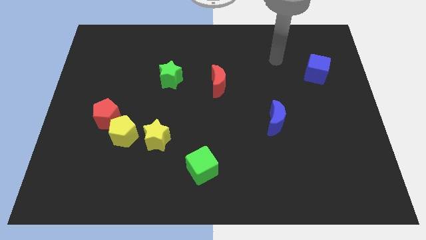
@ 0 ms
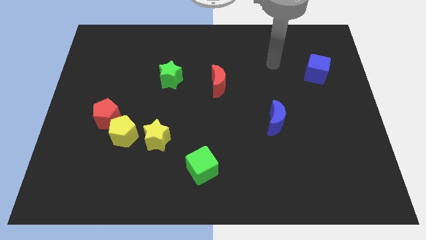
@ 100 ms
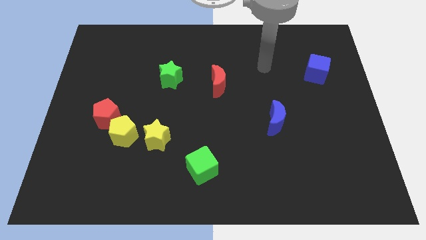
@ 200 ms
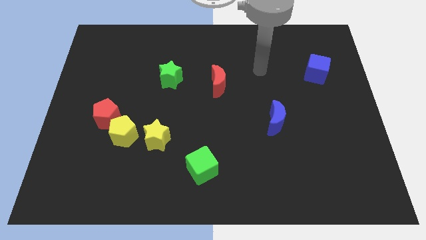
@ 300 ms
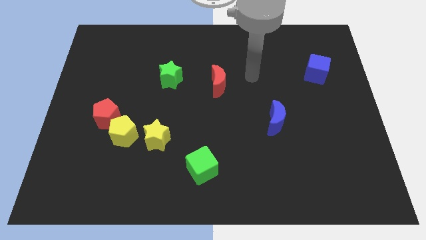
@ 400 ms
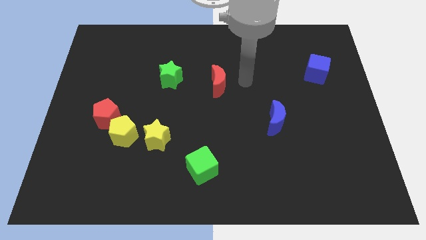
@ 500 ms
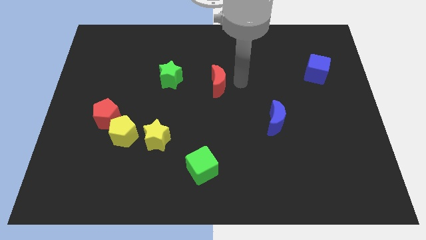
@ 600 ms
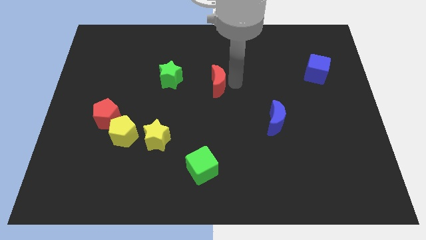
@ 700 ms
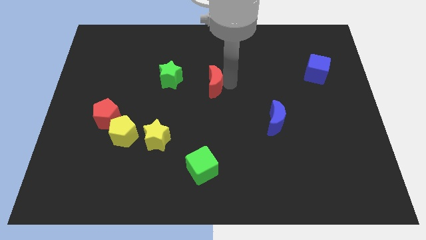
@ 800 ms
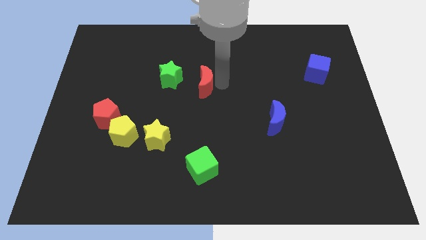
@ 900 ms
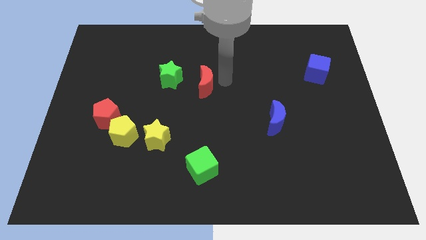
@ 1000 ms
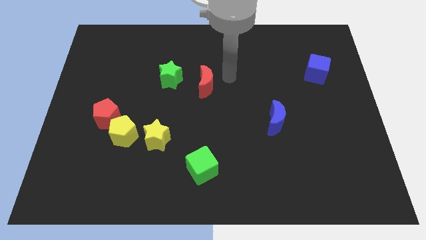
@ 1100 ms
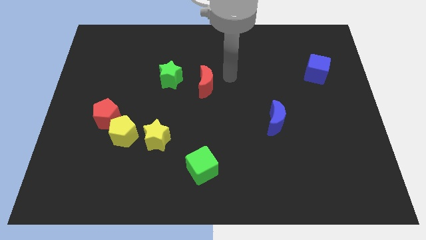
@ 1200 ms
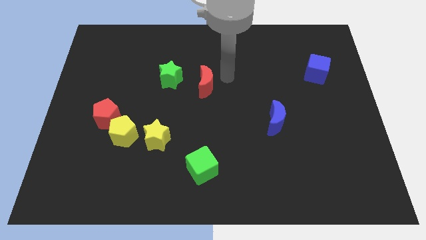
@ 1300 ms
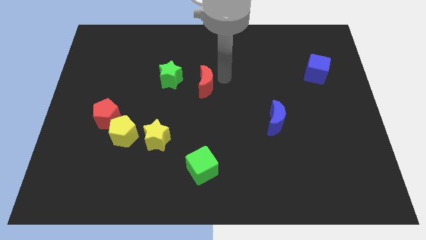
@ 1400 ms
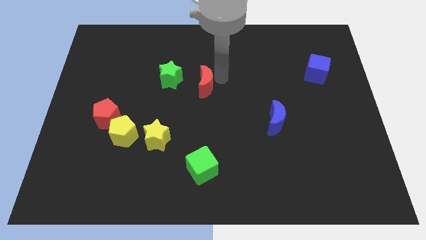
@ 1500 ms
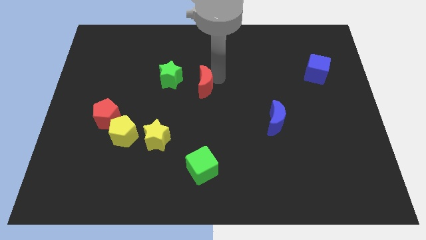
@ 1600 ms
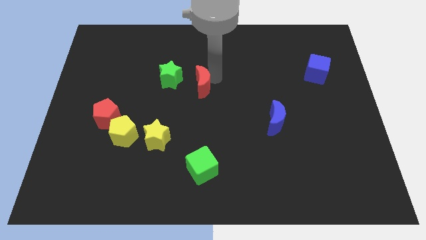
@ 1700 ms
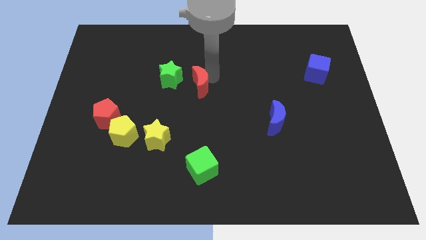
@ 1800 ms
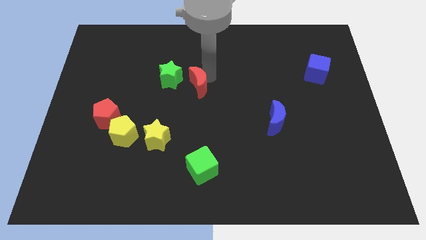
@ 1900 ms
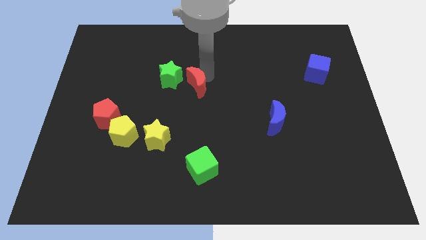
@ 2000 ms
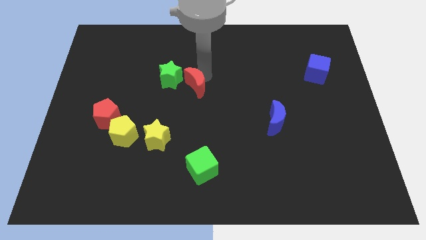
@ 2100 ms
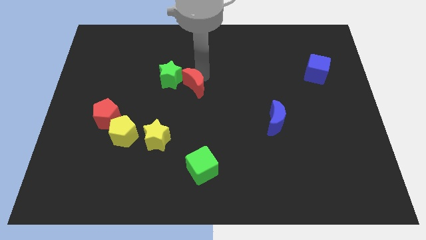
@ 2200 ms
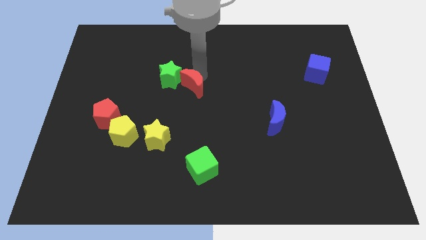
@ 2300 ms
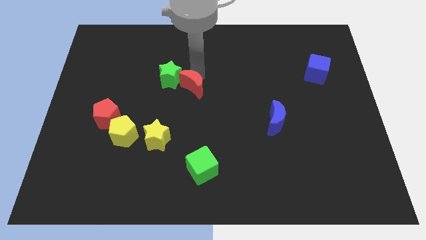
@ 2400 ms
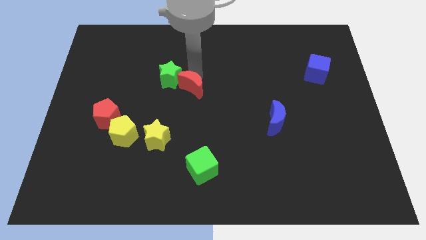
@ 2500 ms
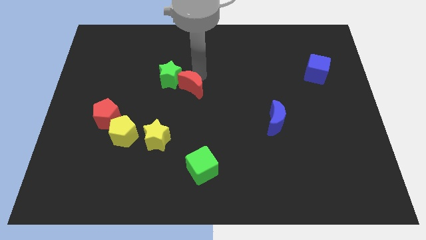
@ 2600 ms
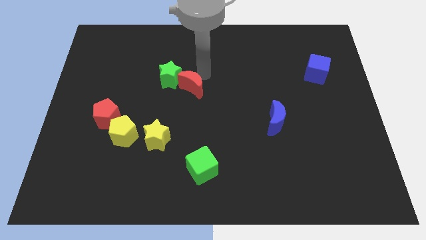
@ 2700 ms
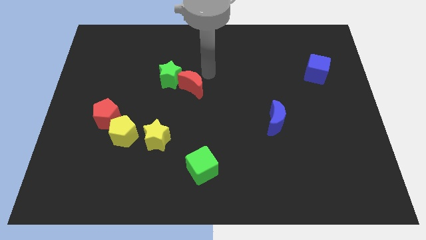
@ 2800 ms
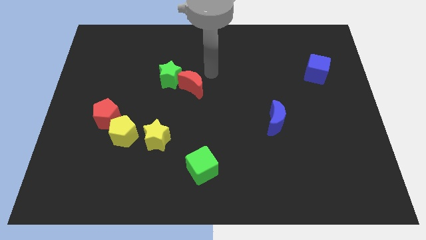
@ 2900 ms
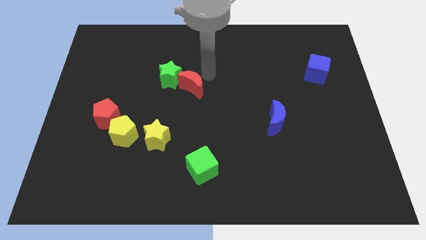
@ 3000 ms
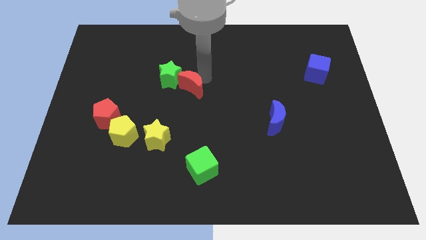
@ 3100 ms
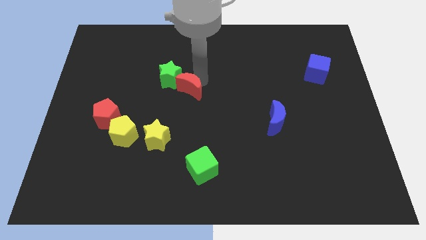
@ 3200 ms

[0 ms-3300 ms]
slightly slide the red moon to the left

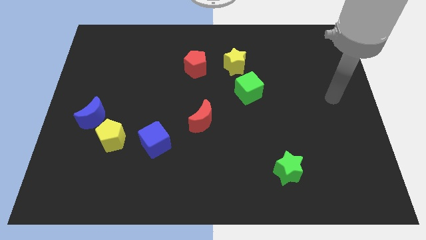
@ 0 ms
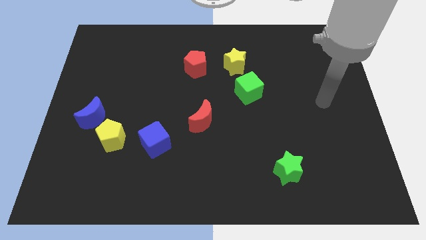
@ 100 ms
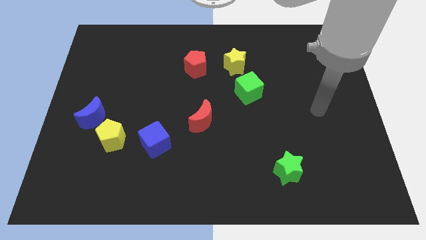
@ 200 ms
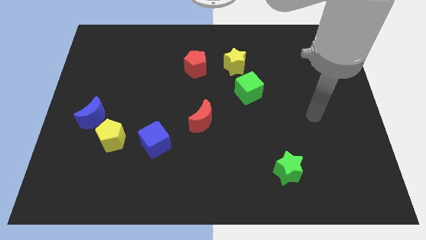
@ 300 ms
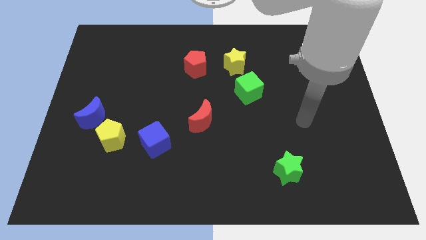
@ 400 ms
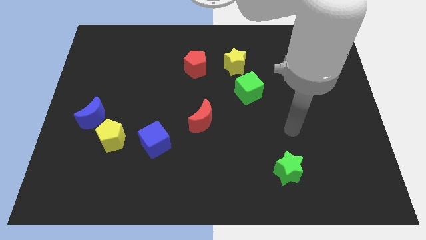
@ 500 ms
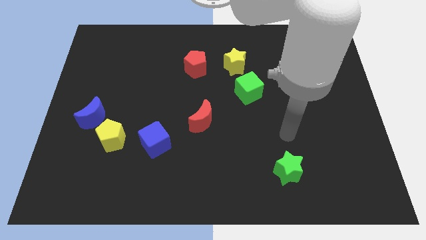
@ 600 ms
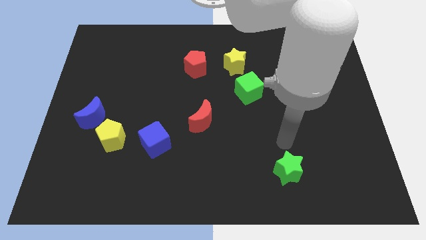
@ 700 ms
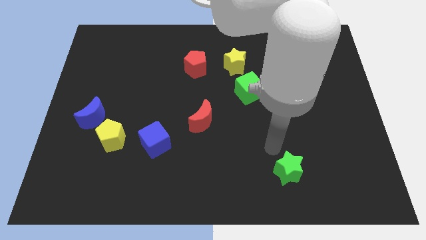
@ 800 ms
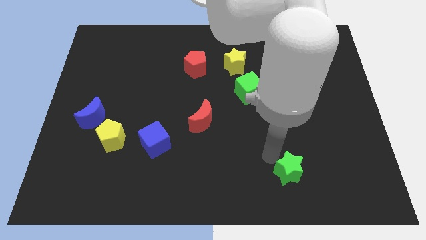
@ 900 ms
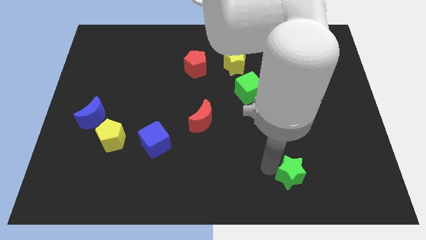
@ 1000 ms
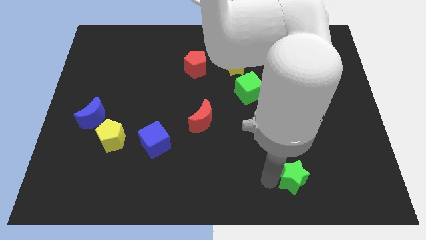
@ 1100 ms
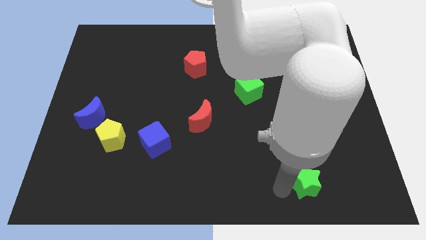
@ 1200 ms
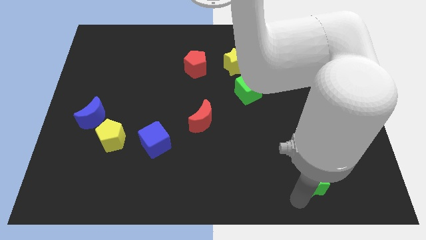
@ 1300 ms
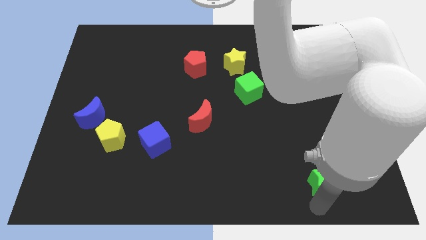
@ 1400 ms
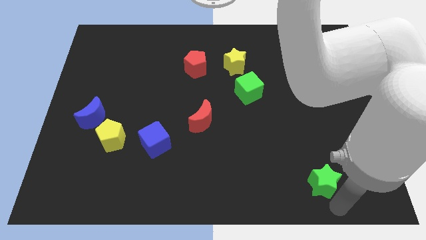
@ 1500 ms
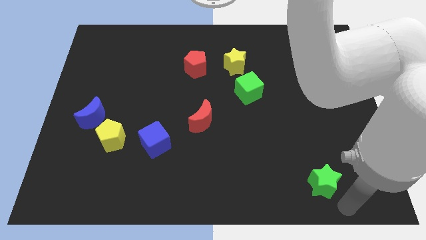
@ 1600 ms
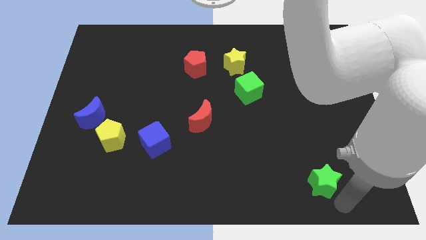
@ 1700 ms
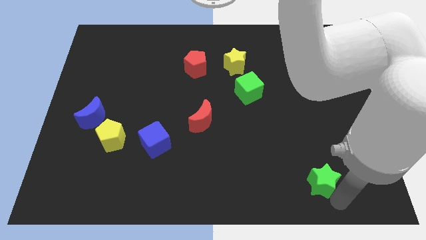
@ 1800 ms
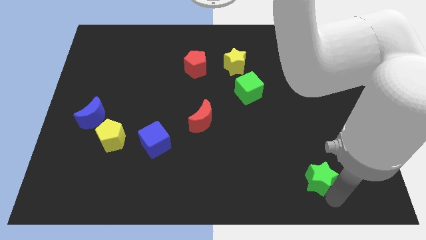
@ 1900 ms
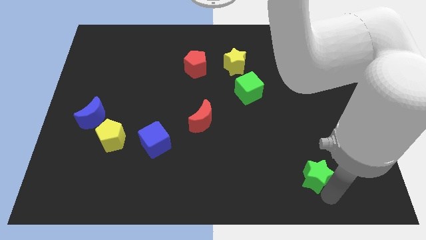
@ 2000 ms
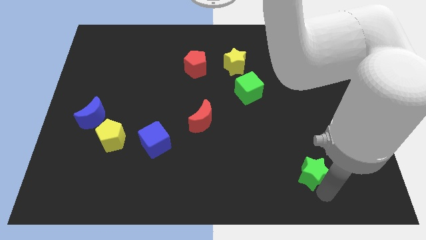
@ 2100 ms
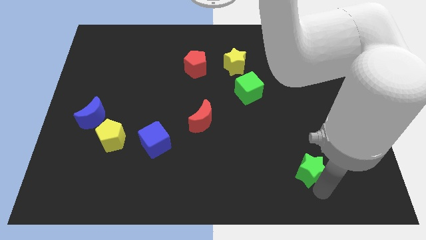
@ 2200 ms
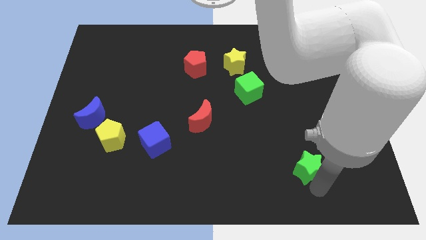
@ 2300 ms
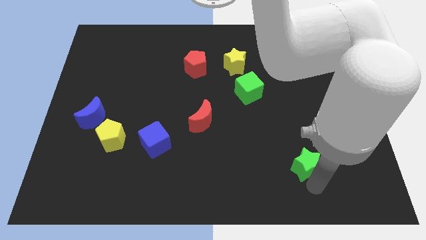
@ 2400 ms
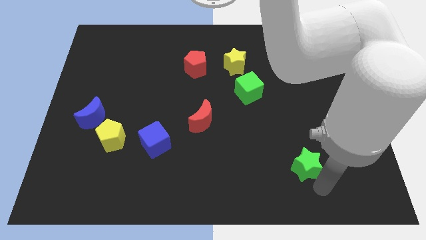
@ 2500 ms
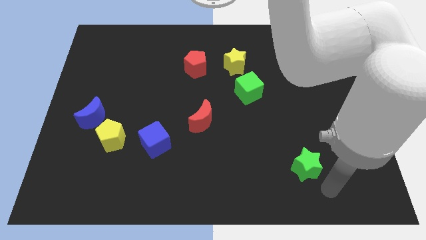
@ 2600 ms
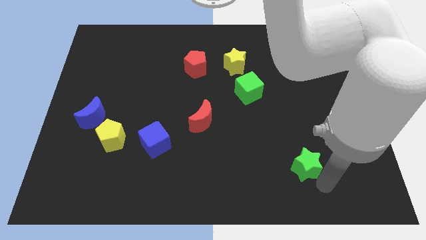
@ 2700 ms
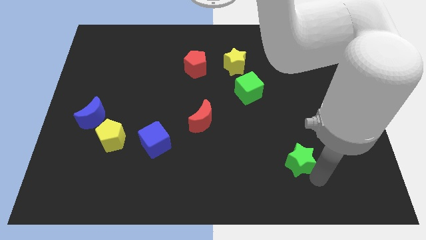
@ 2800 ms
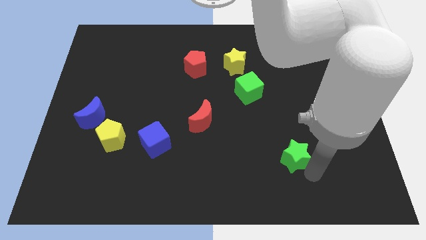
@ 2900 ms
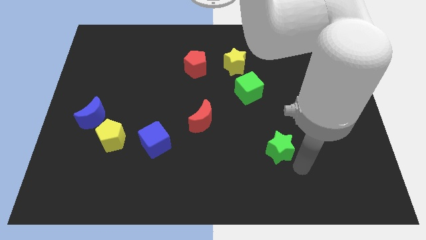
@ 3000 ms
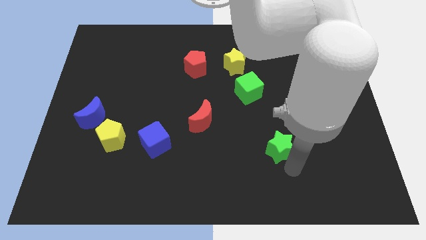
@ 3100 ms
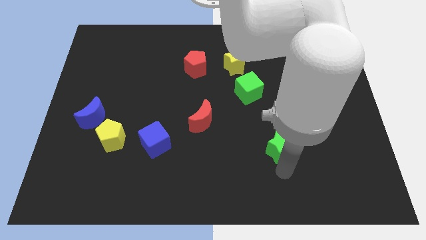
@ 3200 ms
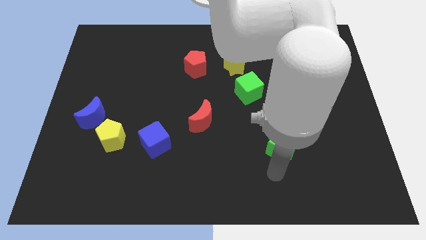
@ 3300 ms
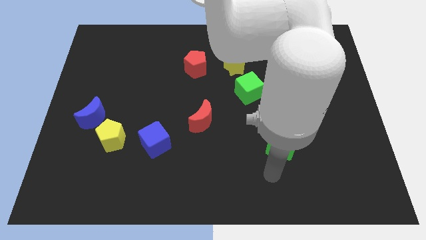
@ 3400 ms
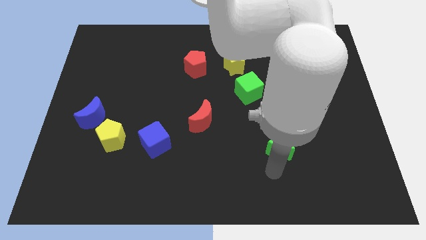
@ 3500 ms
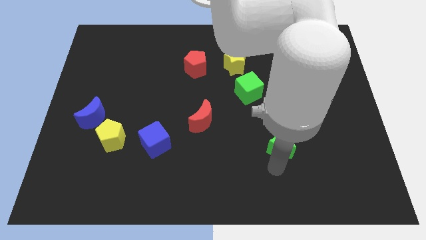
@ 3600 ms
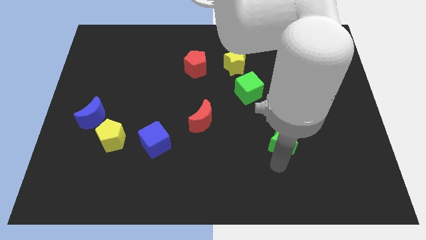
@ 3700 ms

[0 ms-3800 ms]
slide the green star up a bit

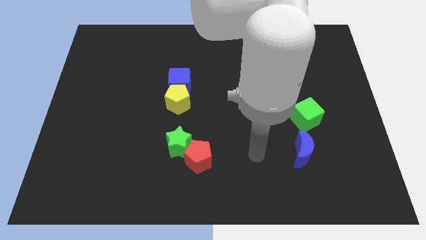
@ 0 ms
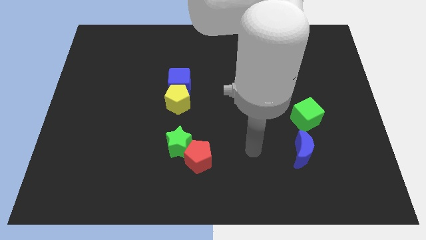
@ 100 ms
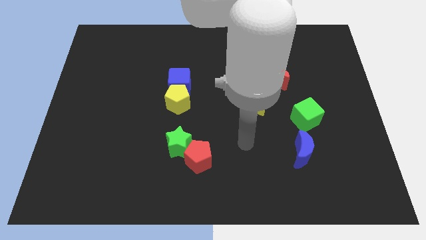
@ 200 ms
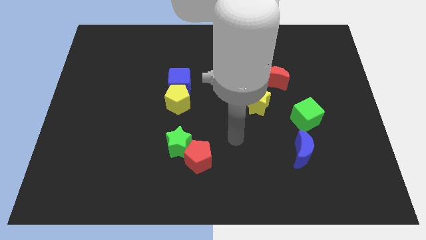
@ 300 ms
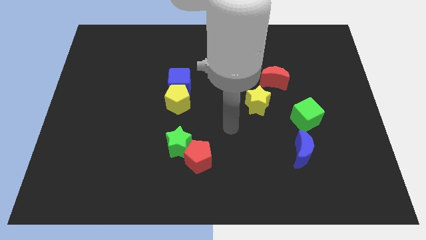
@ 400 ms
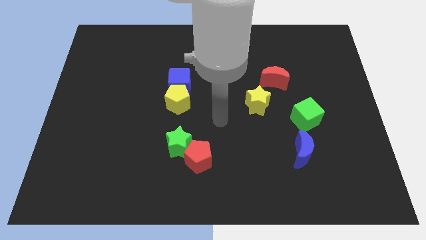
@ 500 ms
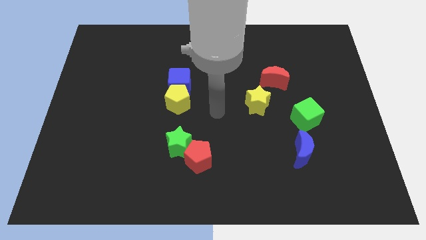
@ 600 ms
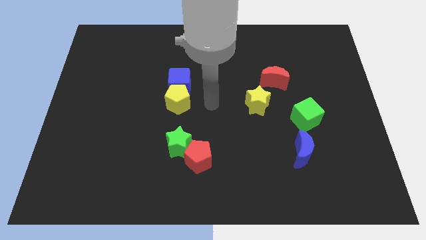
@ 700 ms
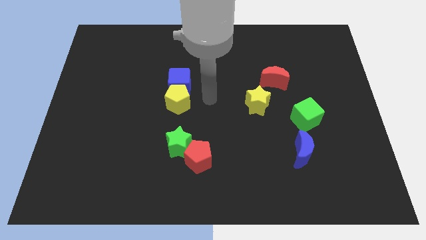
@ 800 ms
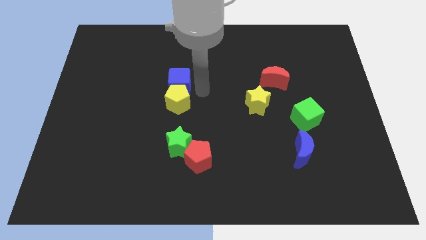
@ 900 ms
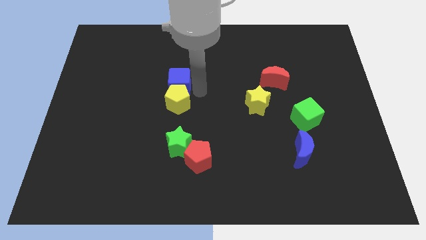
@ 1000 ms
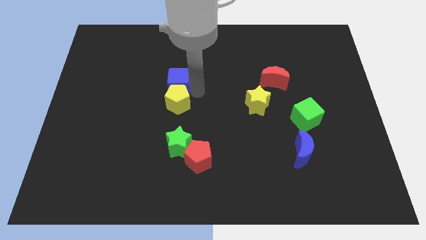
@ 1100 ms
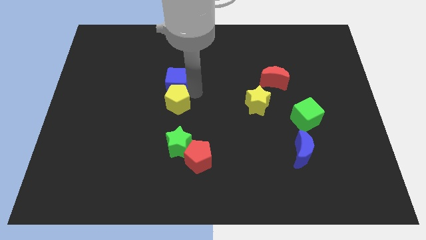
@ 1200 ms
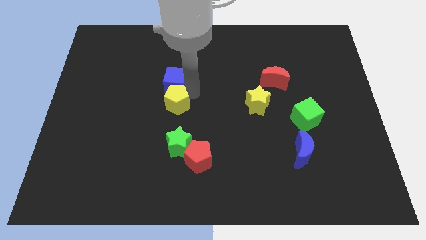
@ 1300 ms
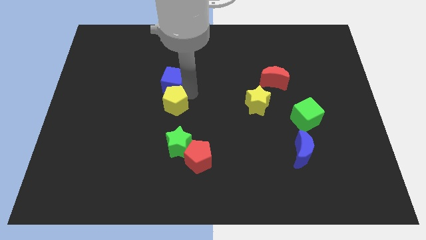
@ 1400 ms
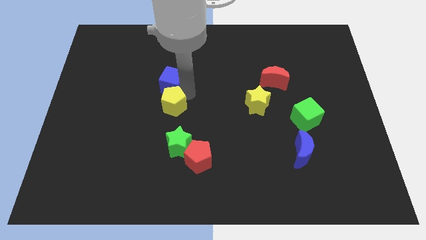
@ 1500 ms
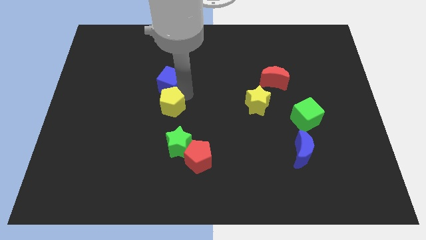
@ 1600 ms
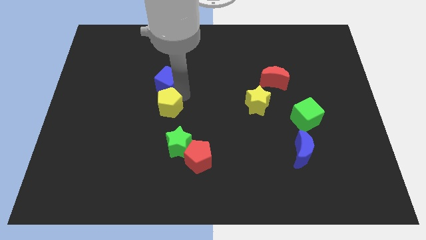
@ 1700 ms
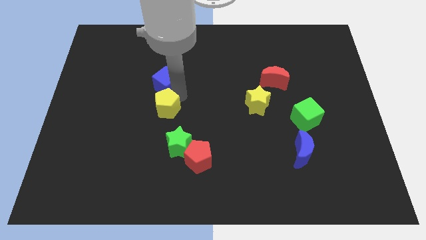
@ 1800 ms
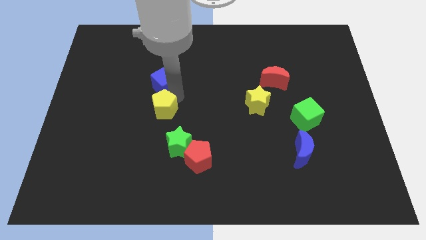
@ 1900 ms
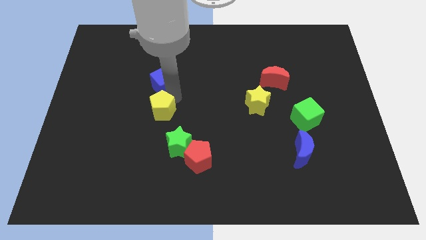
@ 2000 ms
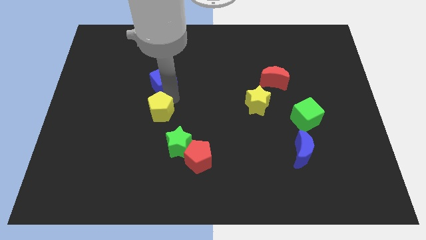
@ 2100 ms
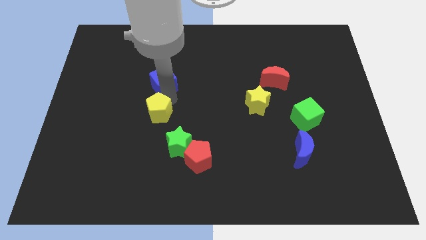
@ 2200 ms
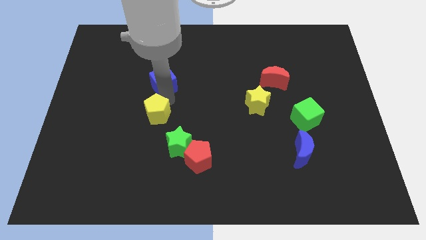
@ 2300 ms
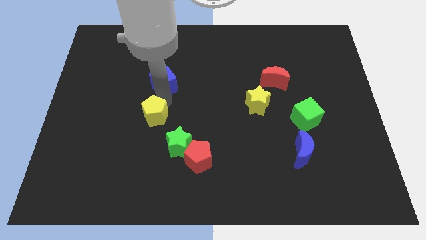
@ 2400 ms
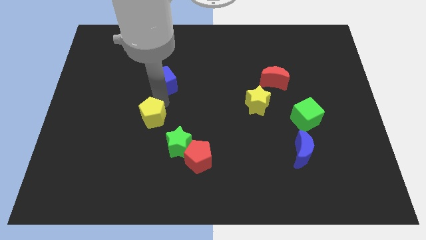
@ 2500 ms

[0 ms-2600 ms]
slightly slide the yellow pentagon down and left diagonally
